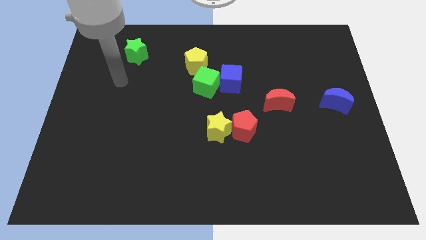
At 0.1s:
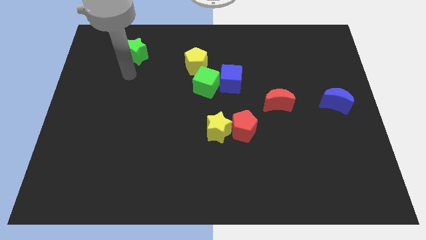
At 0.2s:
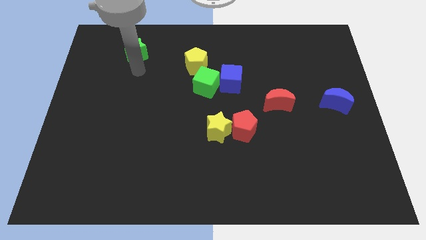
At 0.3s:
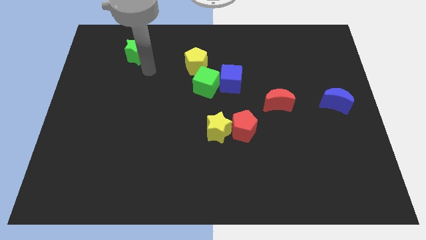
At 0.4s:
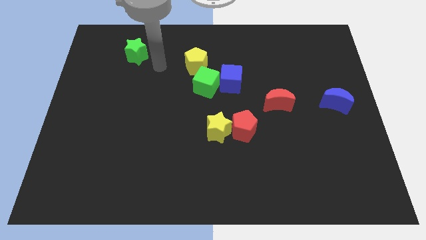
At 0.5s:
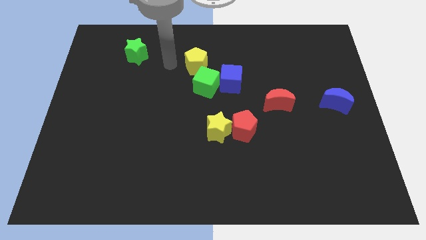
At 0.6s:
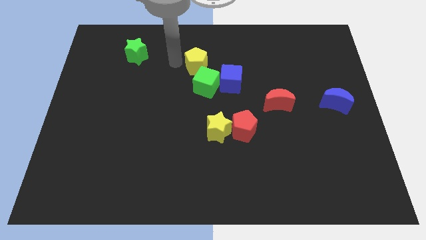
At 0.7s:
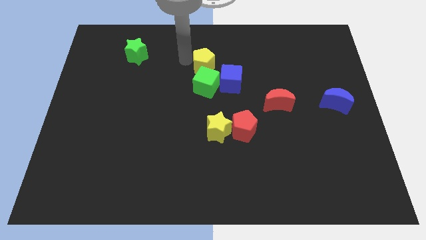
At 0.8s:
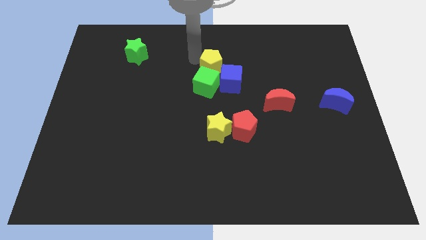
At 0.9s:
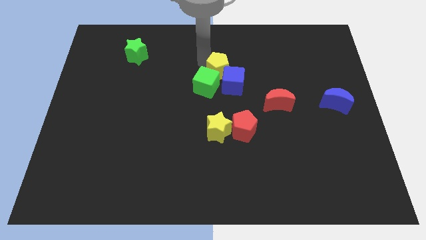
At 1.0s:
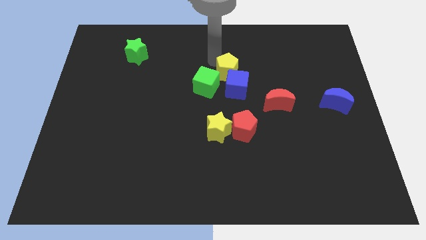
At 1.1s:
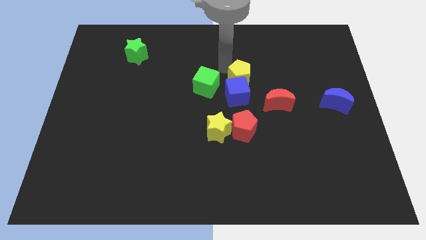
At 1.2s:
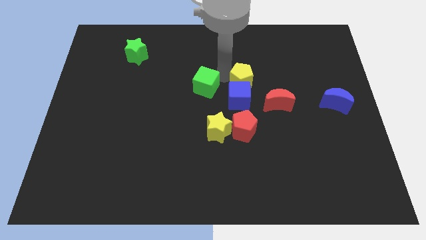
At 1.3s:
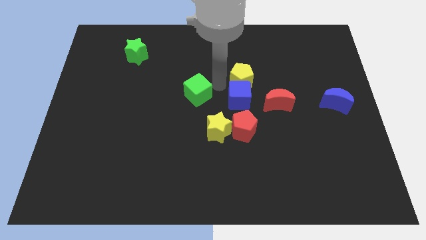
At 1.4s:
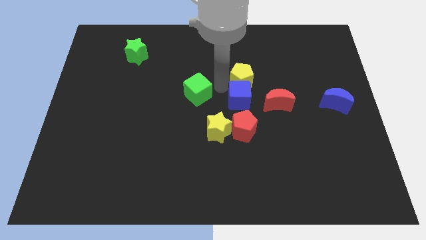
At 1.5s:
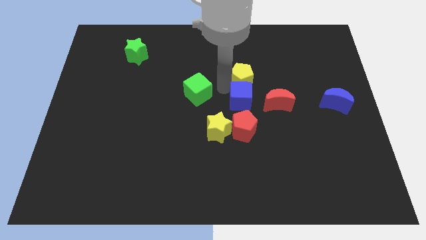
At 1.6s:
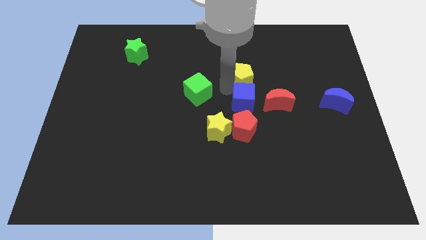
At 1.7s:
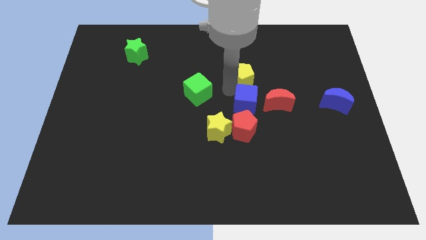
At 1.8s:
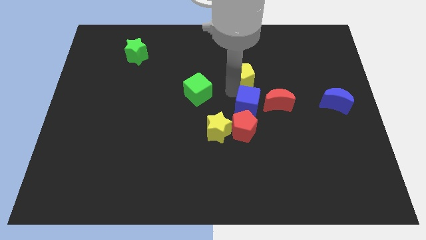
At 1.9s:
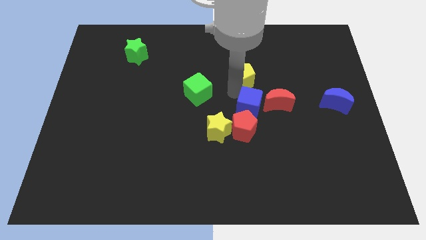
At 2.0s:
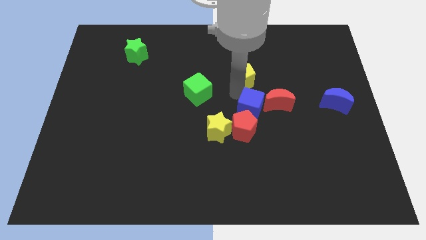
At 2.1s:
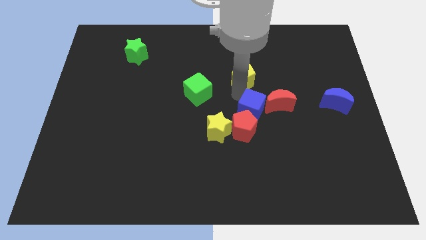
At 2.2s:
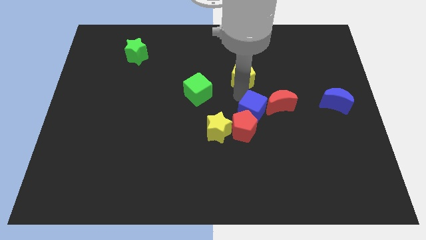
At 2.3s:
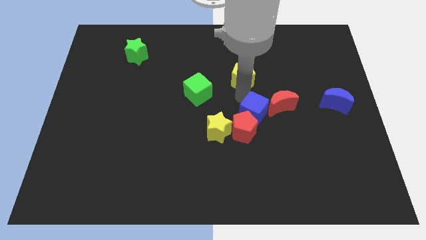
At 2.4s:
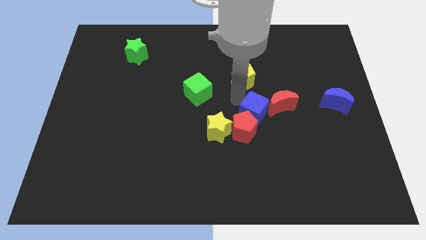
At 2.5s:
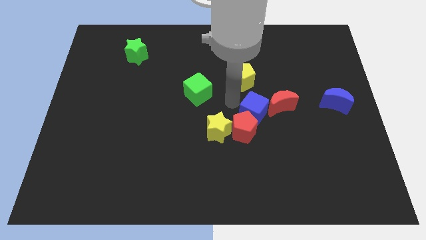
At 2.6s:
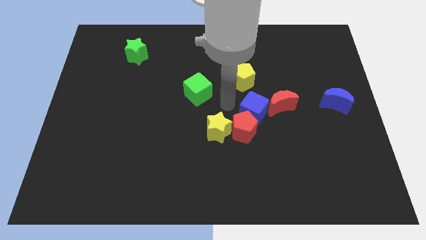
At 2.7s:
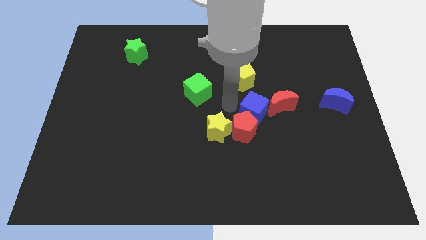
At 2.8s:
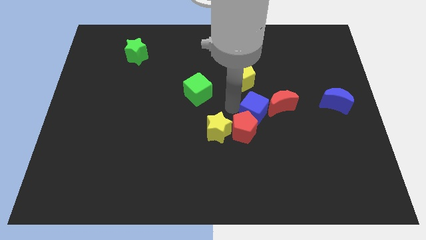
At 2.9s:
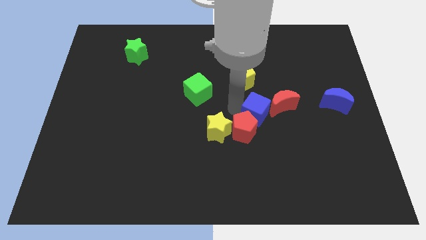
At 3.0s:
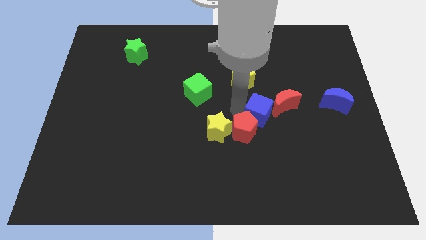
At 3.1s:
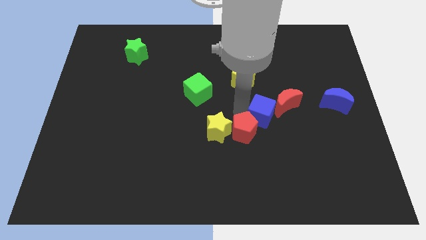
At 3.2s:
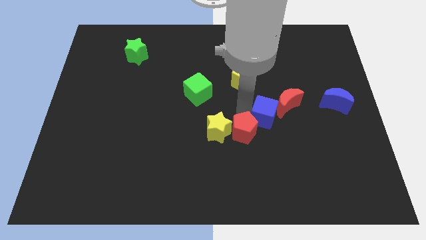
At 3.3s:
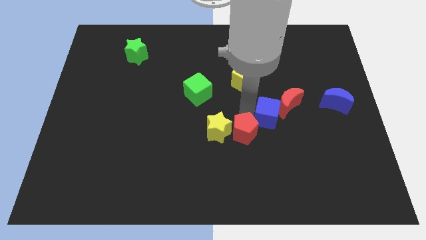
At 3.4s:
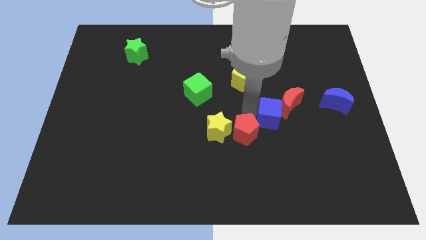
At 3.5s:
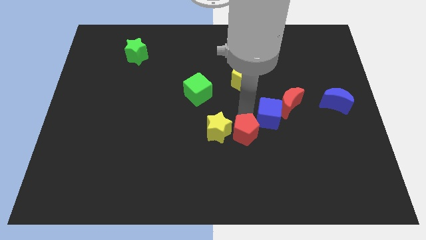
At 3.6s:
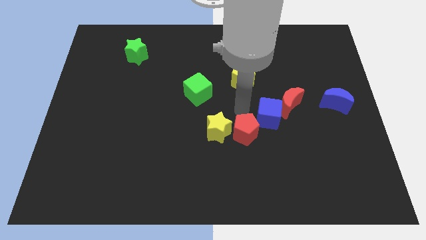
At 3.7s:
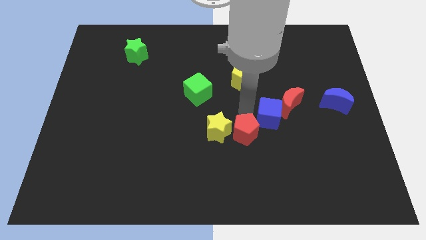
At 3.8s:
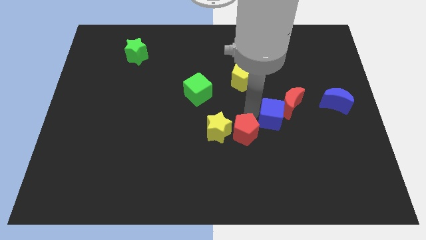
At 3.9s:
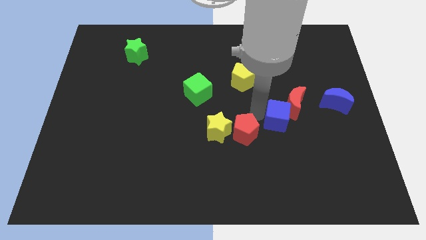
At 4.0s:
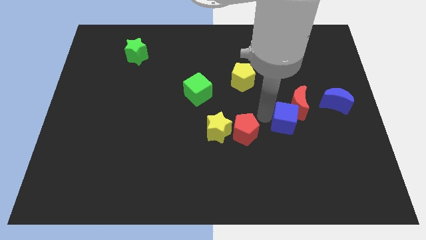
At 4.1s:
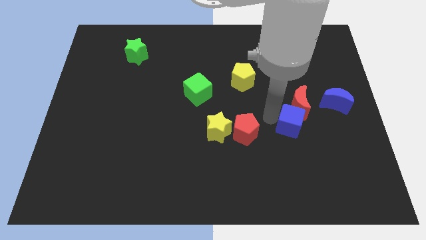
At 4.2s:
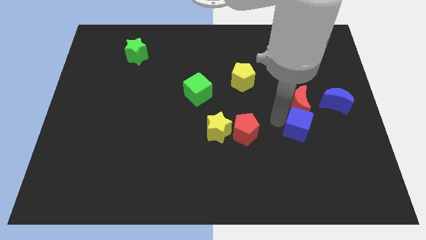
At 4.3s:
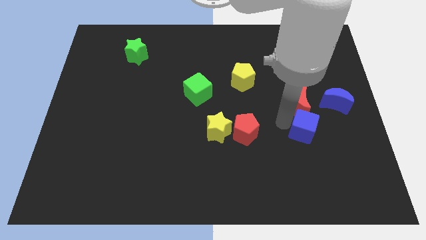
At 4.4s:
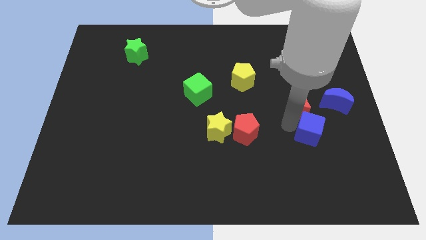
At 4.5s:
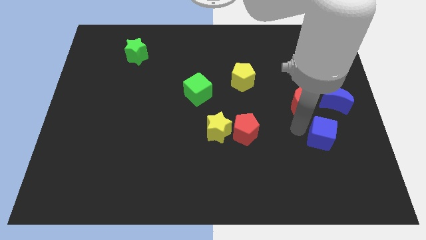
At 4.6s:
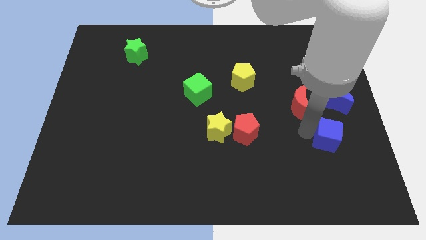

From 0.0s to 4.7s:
slide the blue cube to the bottom side of the blue moon

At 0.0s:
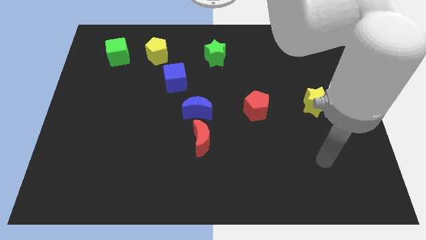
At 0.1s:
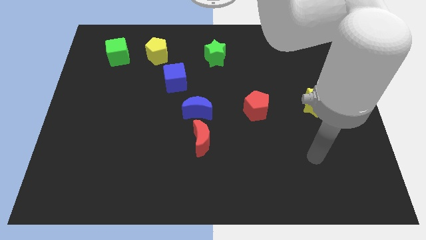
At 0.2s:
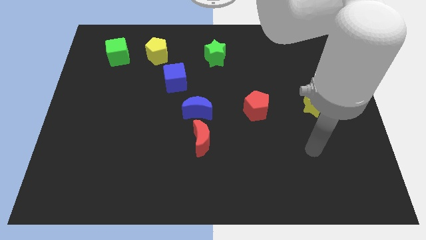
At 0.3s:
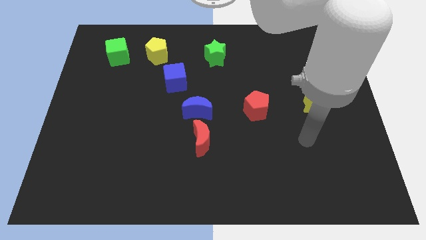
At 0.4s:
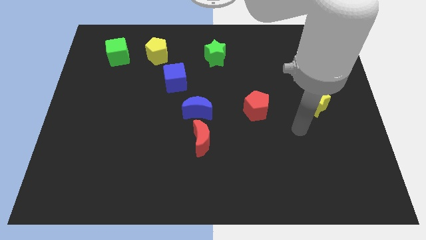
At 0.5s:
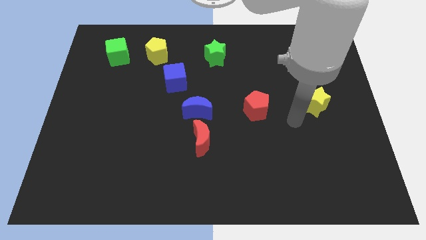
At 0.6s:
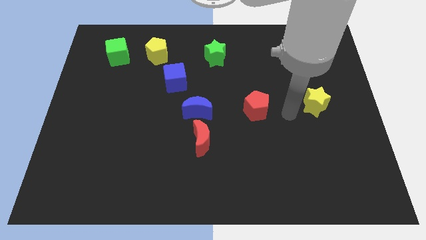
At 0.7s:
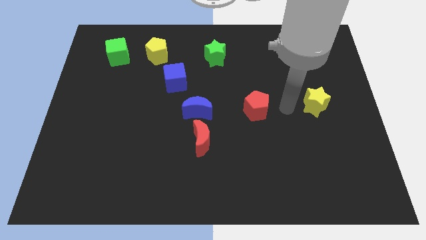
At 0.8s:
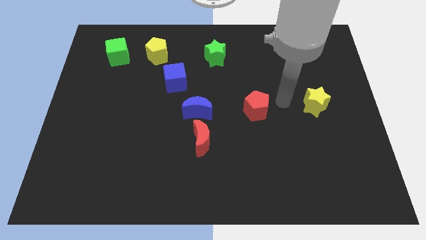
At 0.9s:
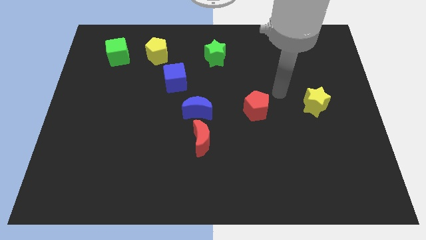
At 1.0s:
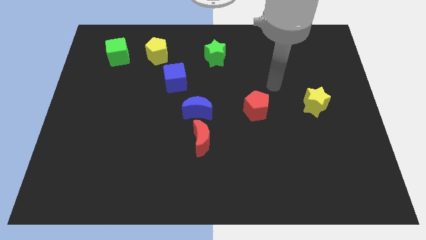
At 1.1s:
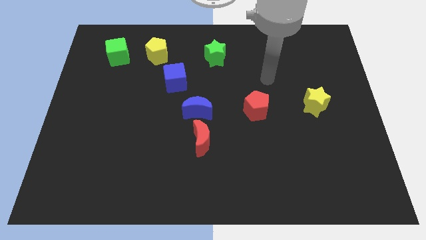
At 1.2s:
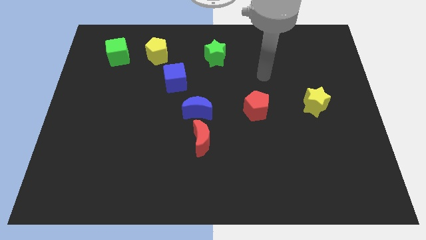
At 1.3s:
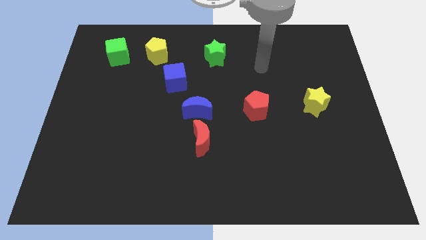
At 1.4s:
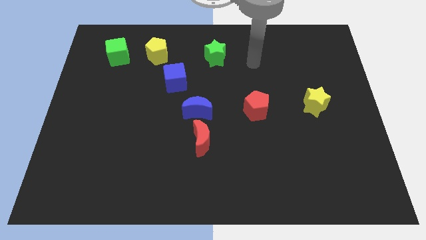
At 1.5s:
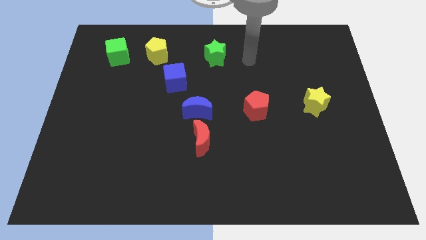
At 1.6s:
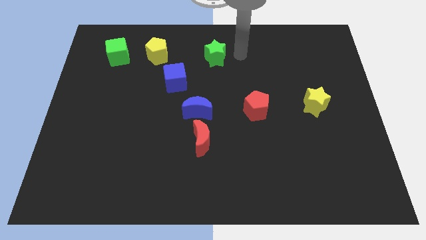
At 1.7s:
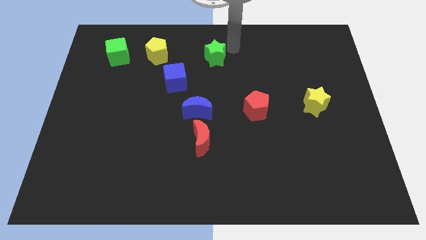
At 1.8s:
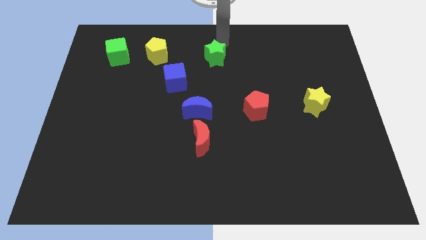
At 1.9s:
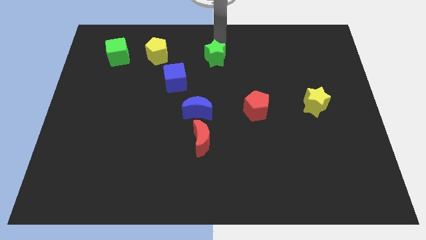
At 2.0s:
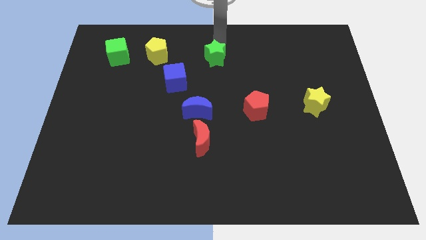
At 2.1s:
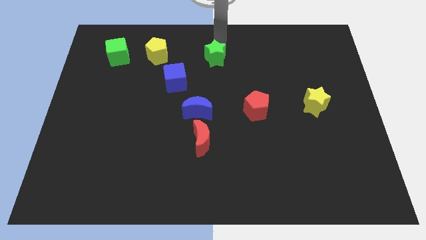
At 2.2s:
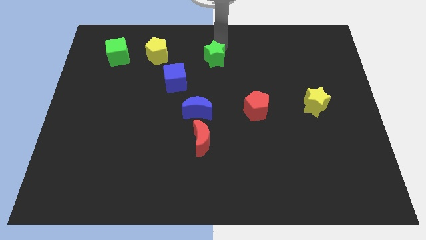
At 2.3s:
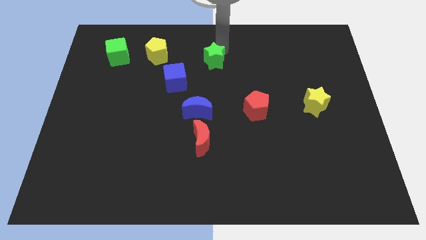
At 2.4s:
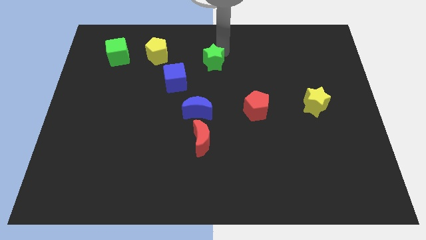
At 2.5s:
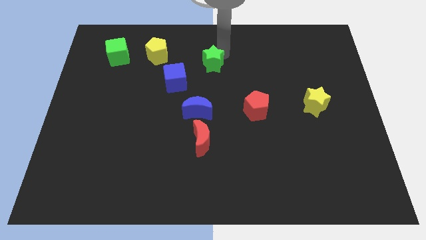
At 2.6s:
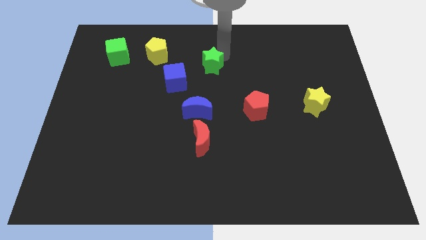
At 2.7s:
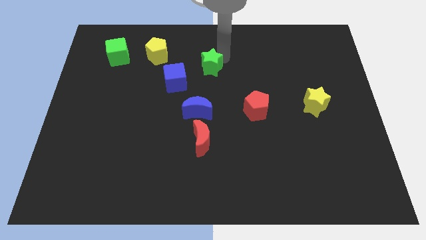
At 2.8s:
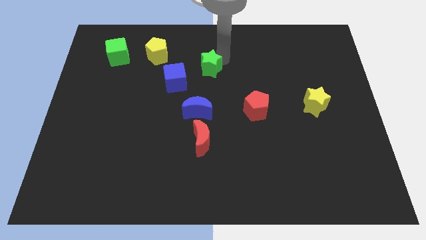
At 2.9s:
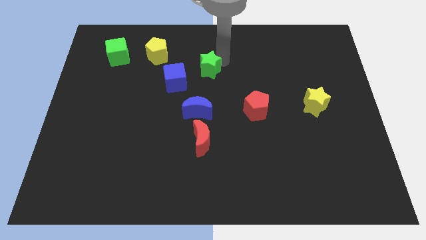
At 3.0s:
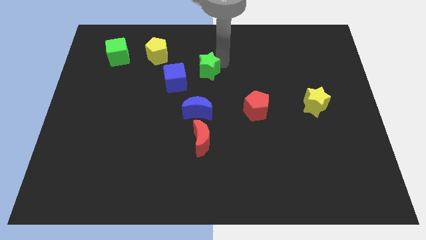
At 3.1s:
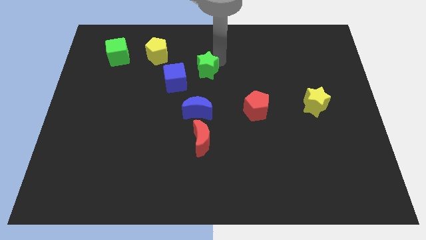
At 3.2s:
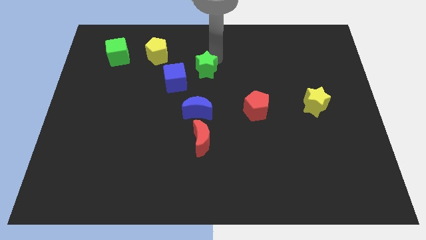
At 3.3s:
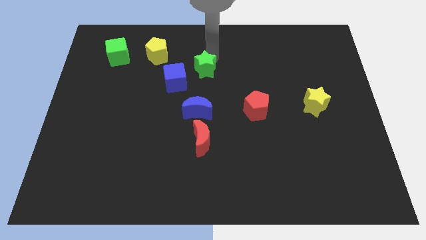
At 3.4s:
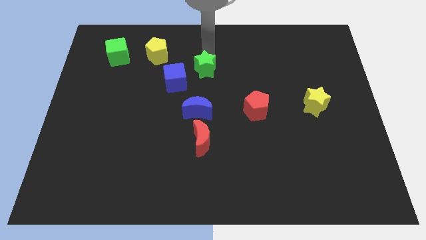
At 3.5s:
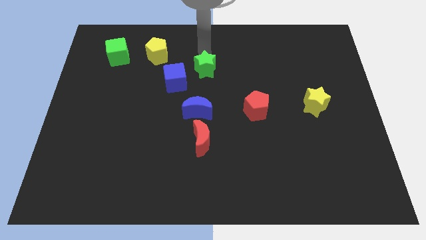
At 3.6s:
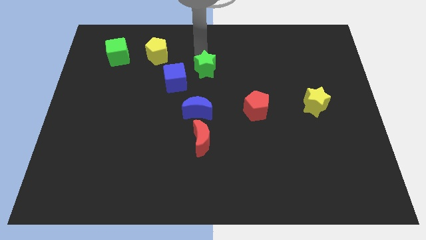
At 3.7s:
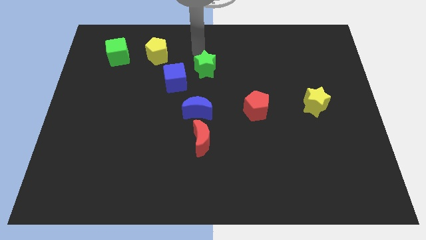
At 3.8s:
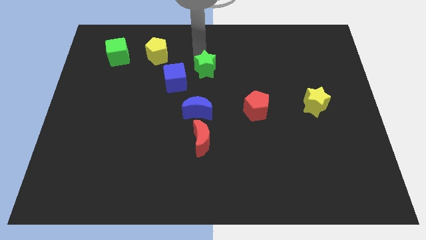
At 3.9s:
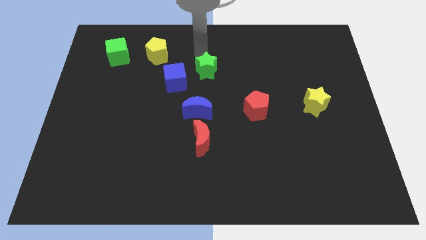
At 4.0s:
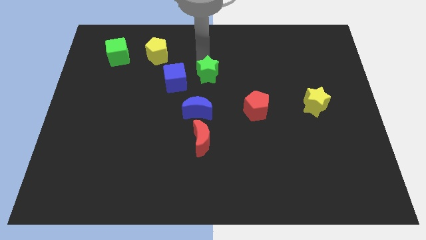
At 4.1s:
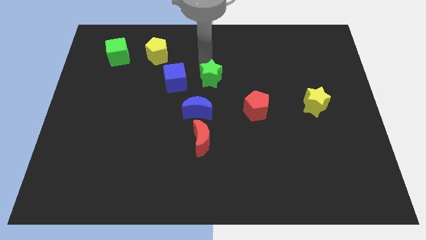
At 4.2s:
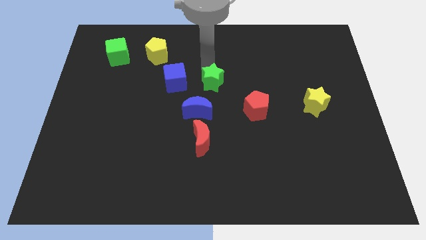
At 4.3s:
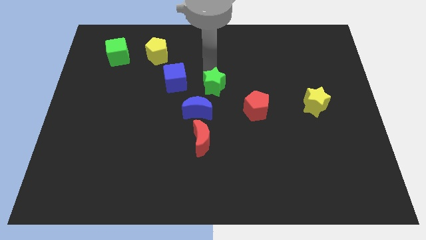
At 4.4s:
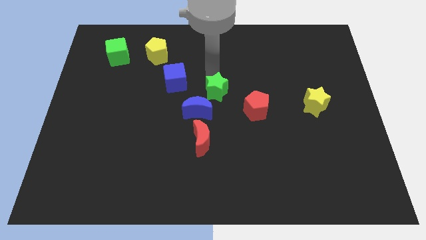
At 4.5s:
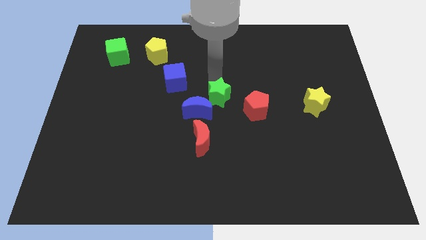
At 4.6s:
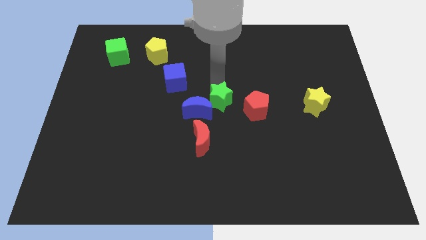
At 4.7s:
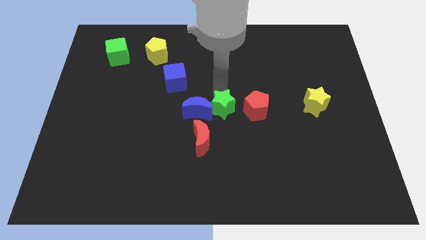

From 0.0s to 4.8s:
push the green star diagonally down and to the right of the blue moon
